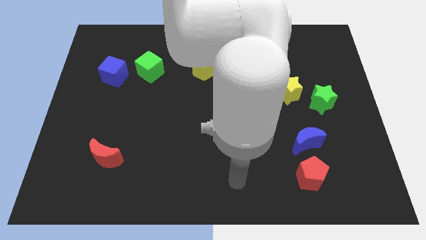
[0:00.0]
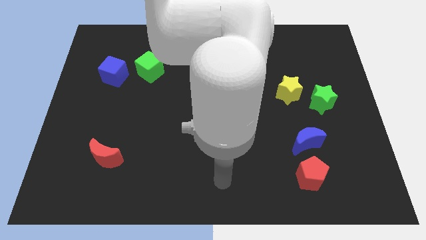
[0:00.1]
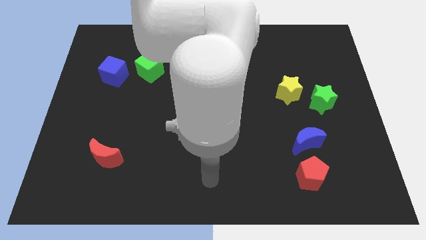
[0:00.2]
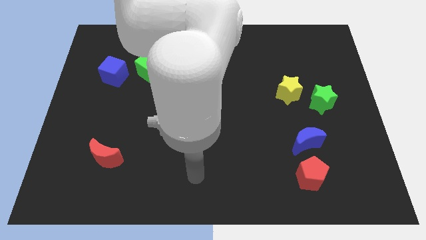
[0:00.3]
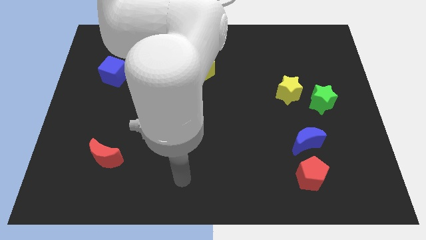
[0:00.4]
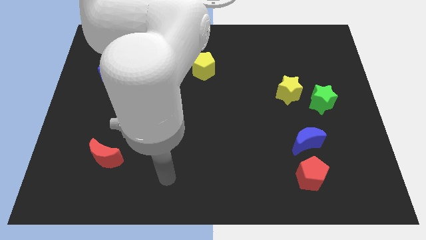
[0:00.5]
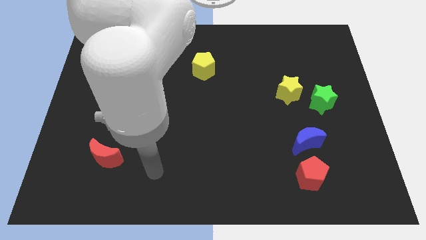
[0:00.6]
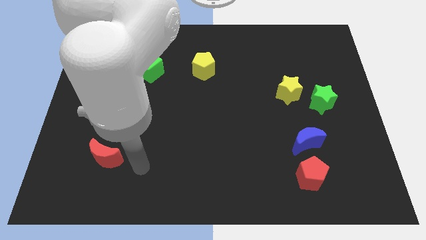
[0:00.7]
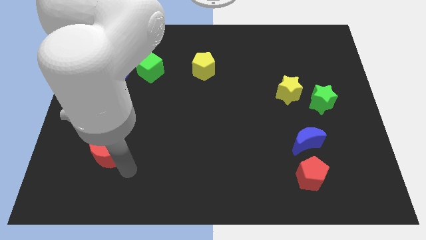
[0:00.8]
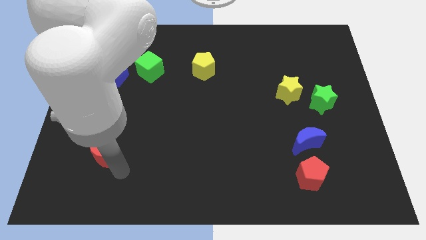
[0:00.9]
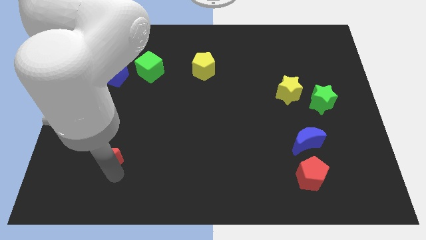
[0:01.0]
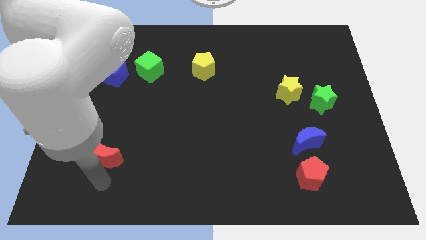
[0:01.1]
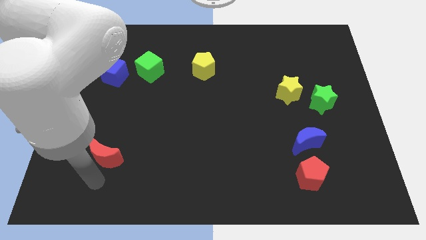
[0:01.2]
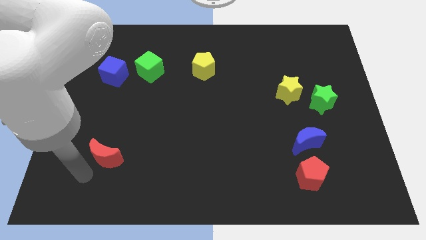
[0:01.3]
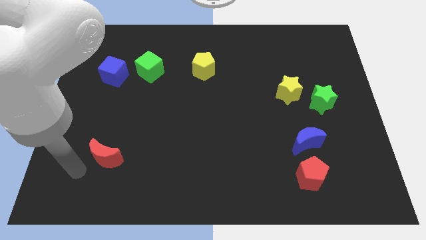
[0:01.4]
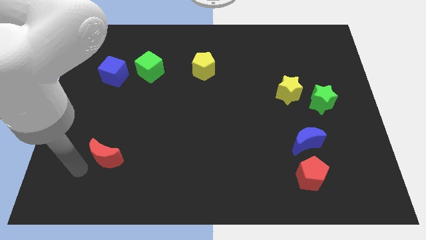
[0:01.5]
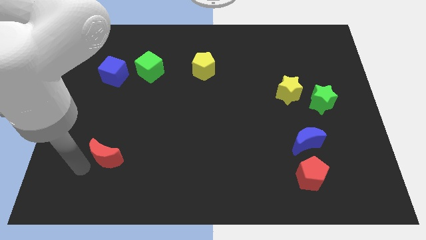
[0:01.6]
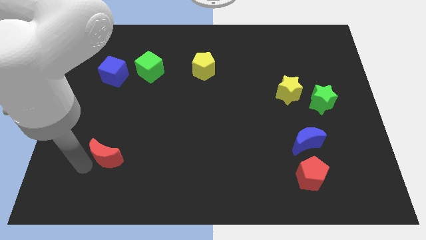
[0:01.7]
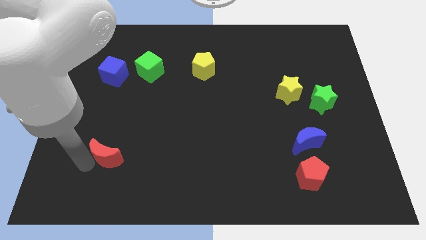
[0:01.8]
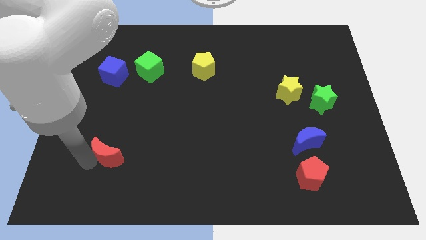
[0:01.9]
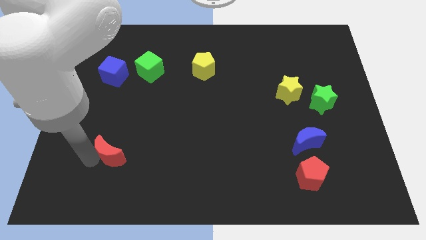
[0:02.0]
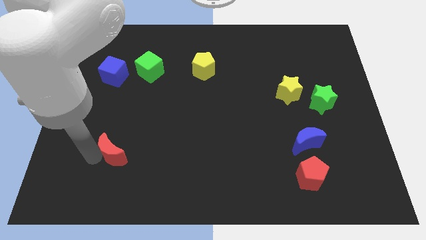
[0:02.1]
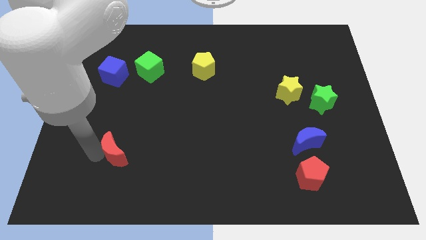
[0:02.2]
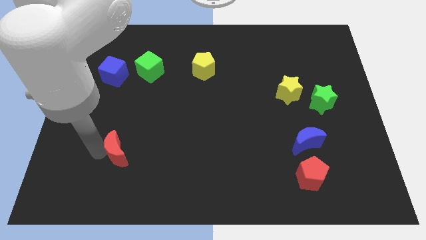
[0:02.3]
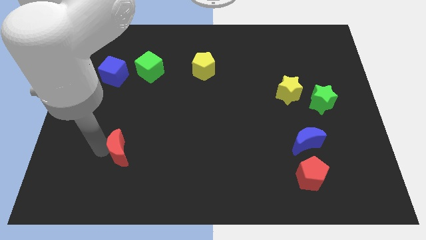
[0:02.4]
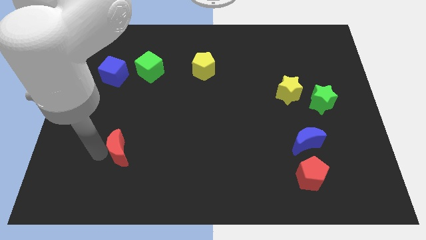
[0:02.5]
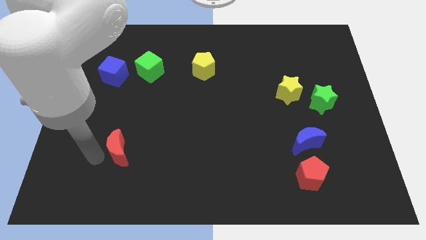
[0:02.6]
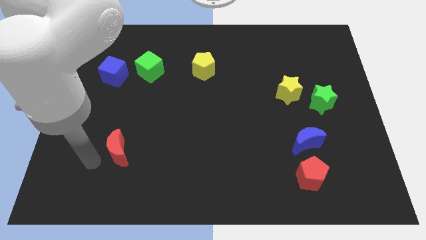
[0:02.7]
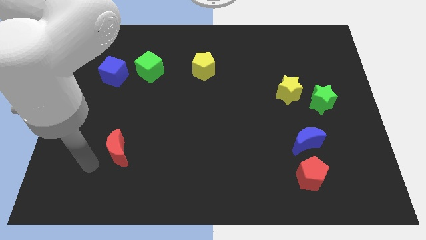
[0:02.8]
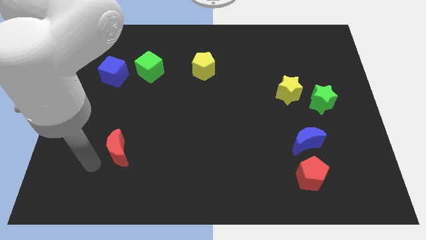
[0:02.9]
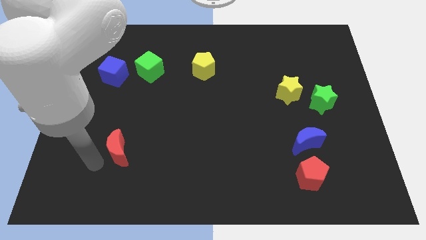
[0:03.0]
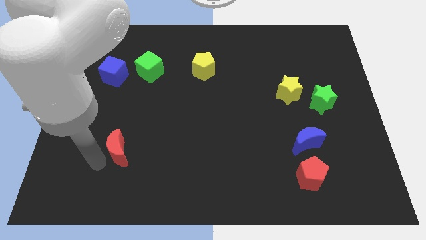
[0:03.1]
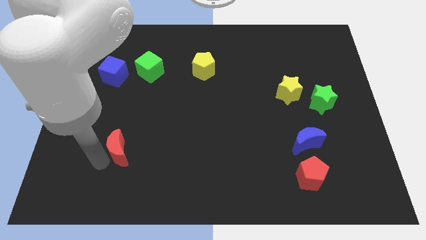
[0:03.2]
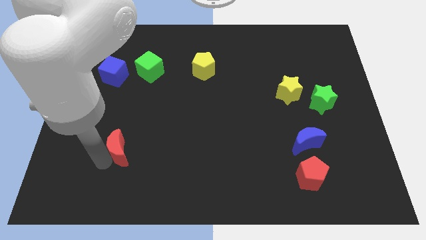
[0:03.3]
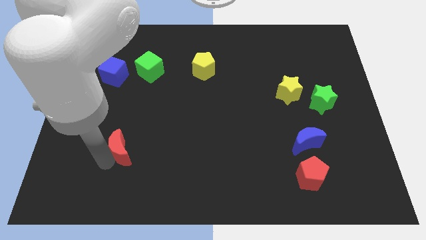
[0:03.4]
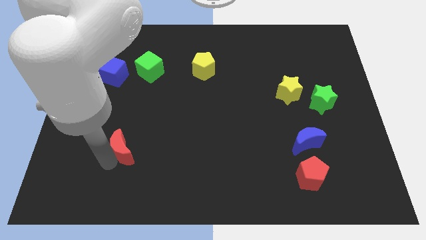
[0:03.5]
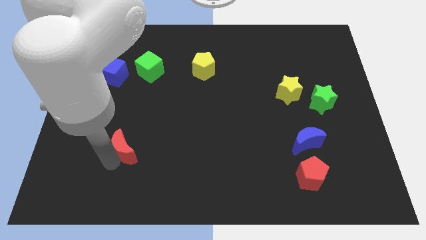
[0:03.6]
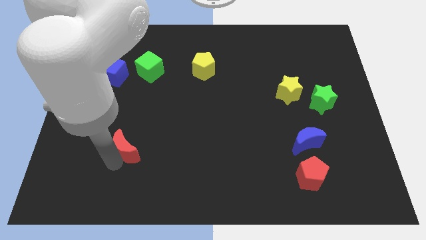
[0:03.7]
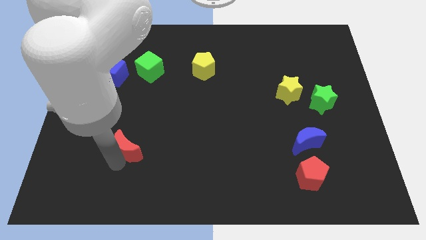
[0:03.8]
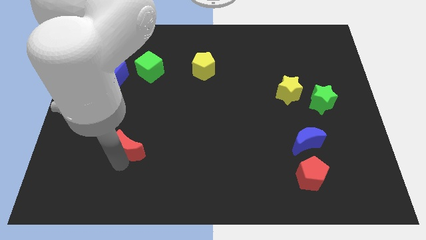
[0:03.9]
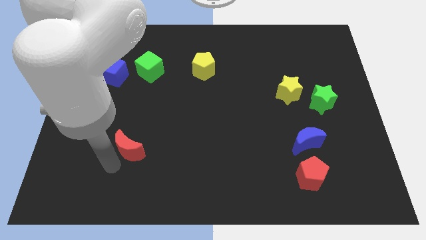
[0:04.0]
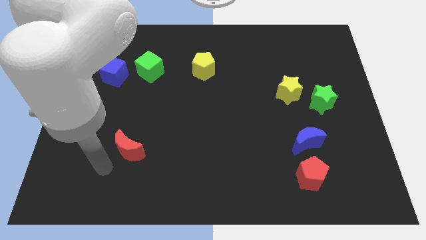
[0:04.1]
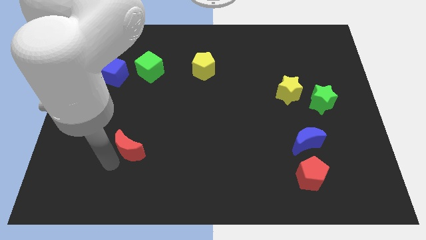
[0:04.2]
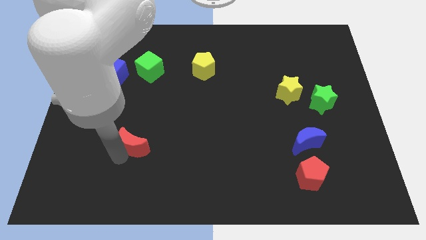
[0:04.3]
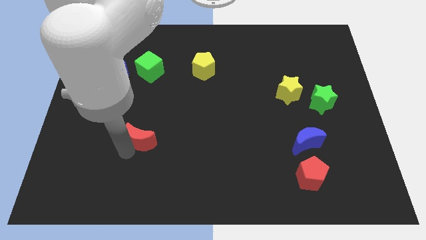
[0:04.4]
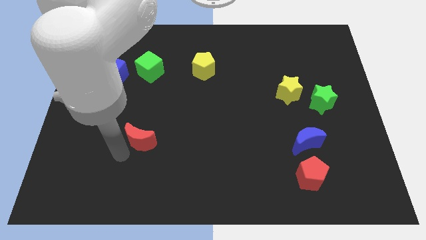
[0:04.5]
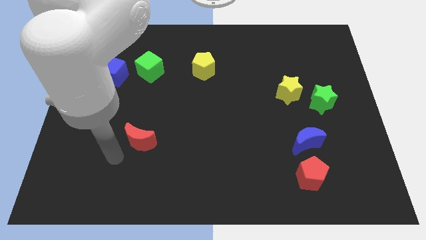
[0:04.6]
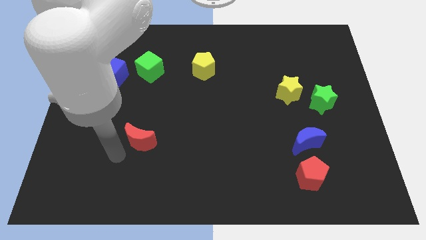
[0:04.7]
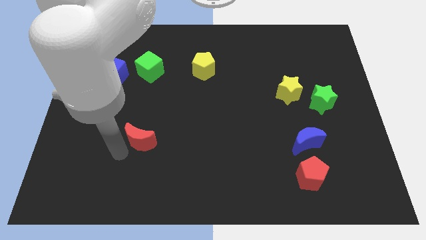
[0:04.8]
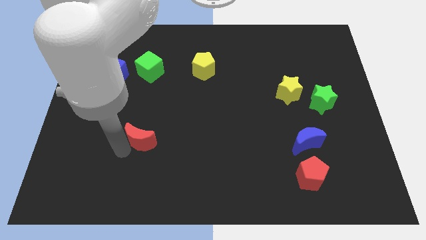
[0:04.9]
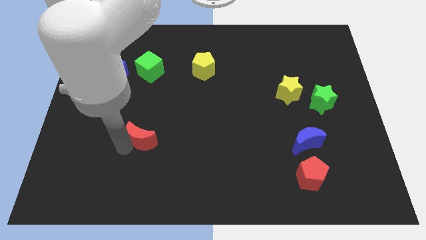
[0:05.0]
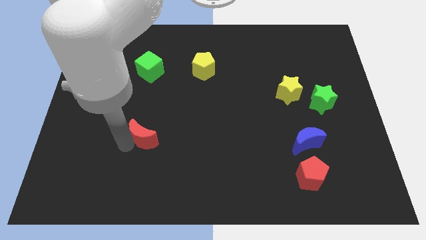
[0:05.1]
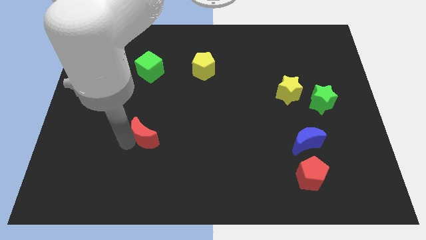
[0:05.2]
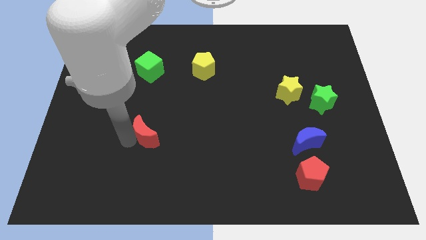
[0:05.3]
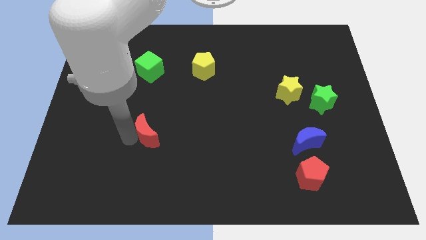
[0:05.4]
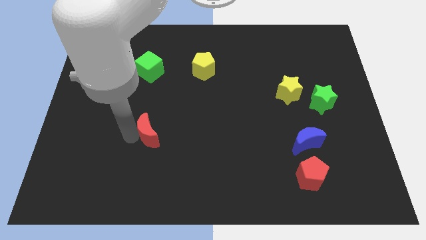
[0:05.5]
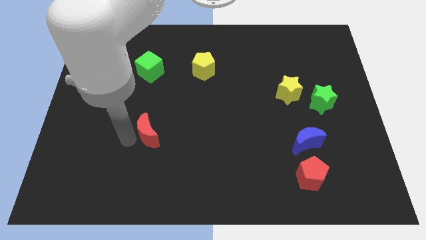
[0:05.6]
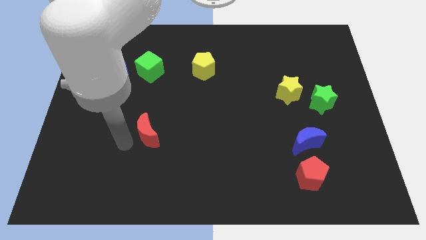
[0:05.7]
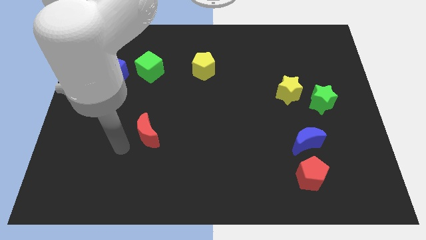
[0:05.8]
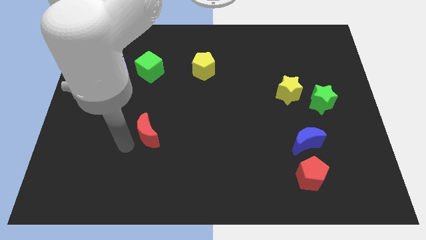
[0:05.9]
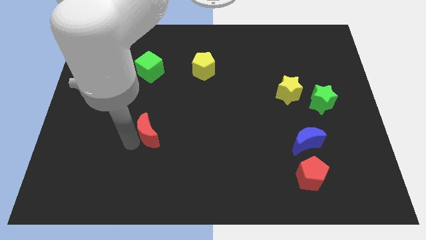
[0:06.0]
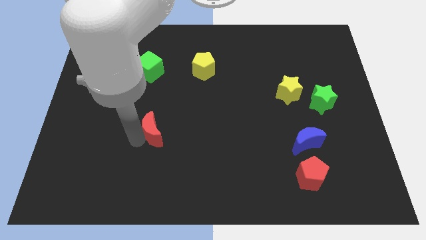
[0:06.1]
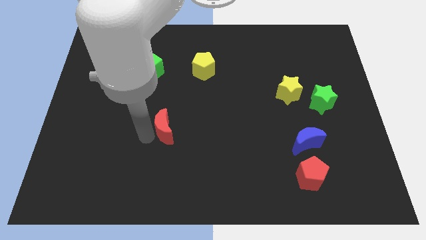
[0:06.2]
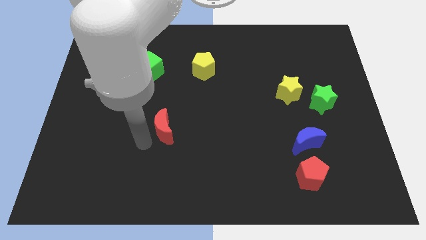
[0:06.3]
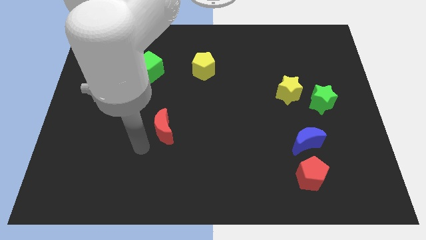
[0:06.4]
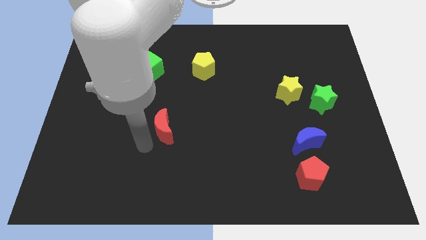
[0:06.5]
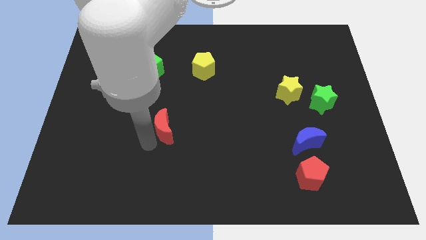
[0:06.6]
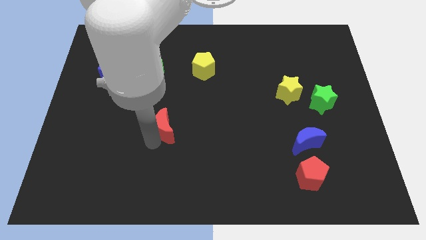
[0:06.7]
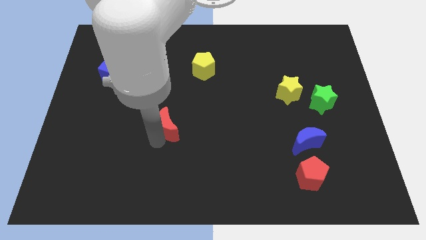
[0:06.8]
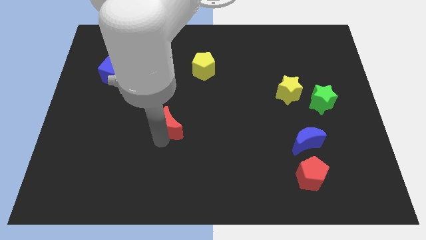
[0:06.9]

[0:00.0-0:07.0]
put the red moon to the middle of the board
